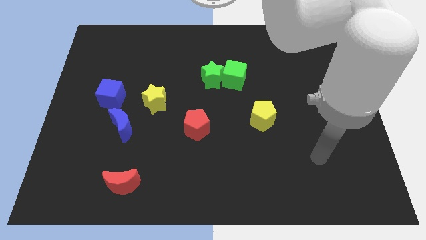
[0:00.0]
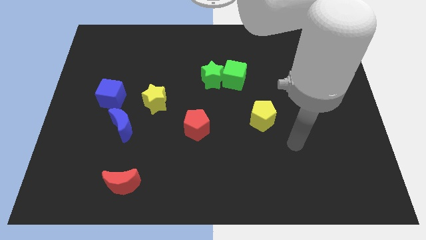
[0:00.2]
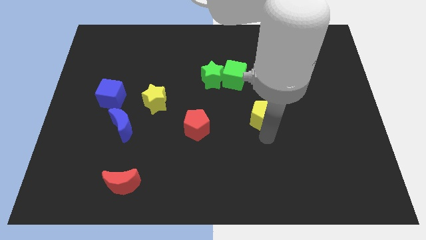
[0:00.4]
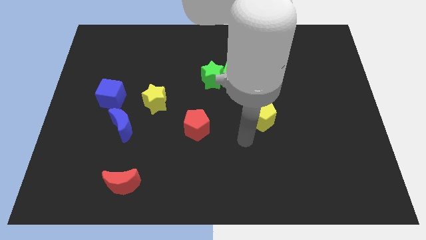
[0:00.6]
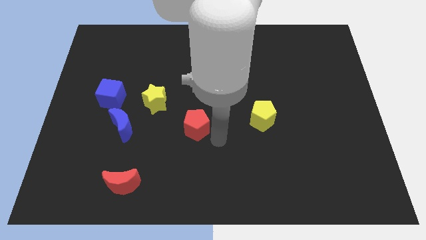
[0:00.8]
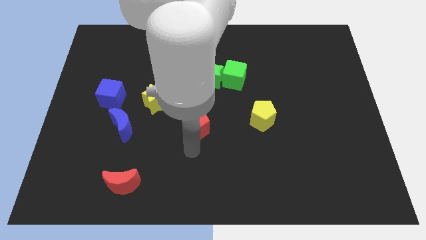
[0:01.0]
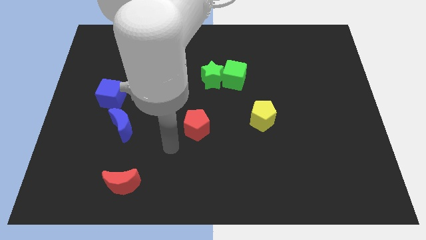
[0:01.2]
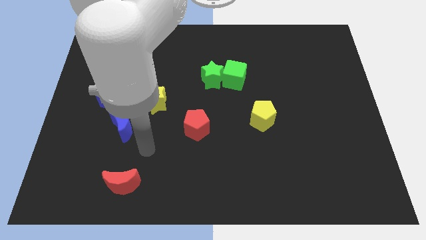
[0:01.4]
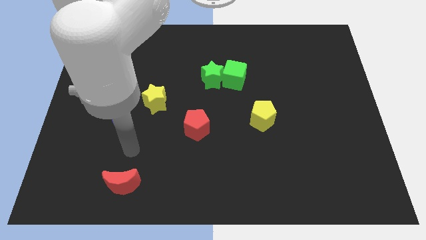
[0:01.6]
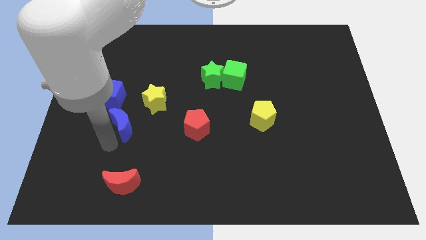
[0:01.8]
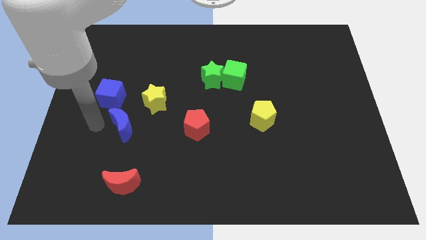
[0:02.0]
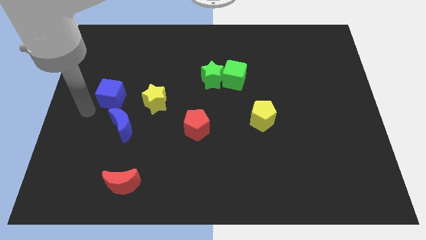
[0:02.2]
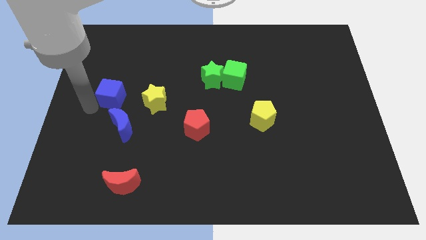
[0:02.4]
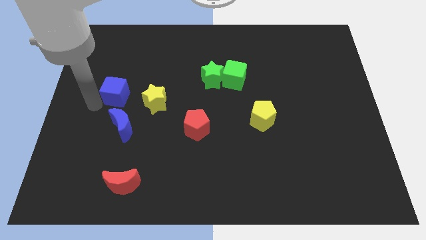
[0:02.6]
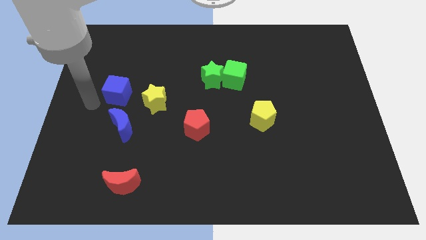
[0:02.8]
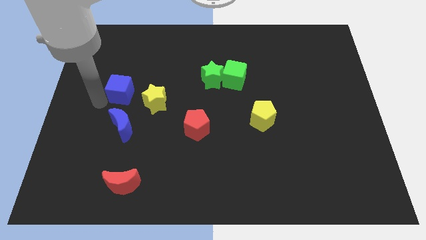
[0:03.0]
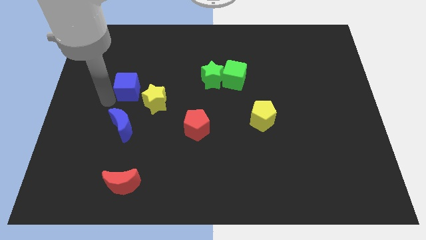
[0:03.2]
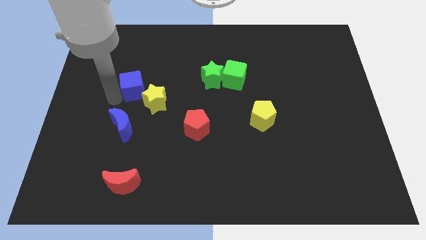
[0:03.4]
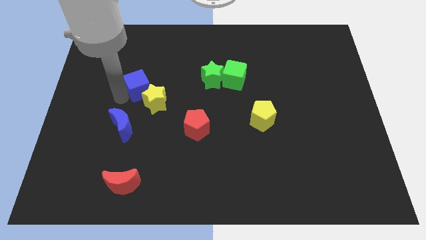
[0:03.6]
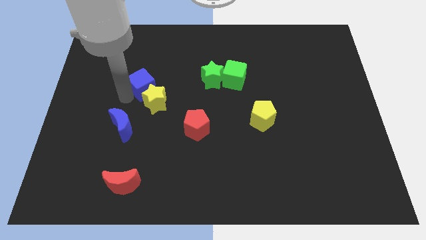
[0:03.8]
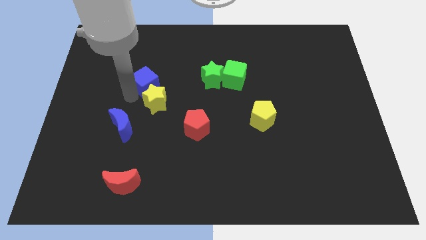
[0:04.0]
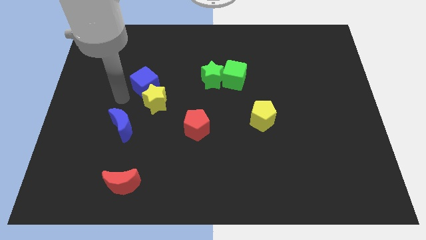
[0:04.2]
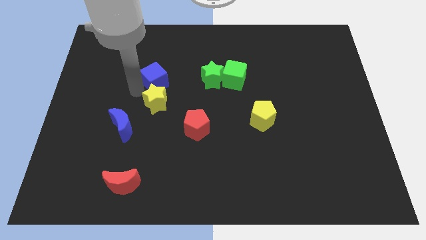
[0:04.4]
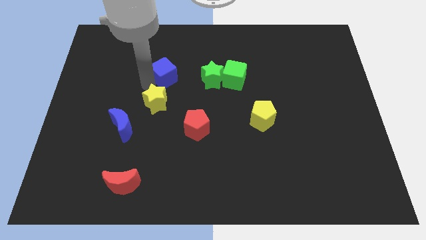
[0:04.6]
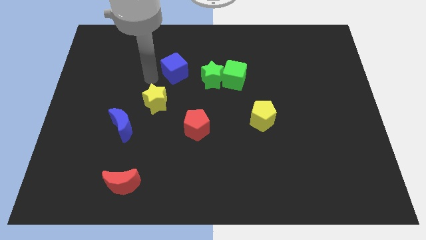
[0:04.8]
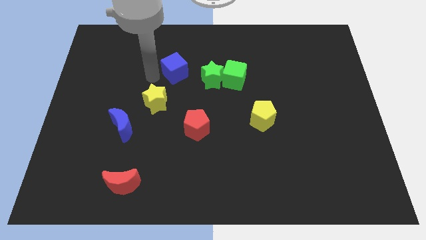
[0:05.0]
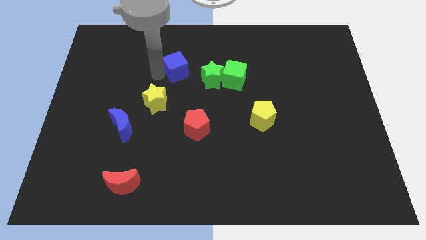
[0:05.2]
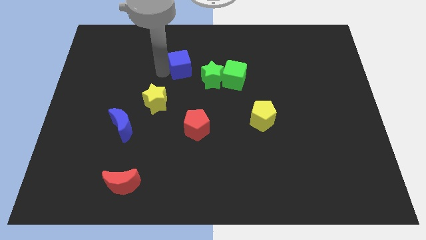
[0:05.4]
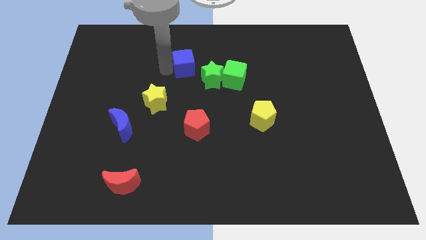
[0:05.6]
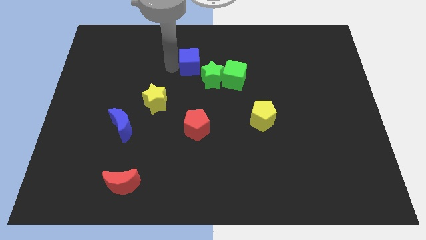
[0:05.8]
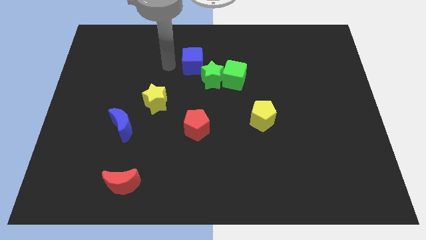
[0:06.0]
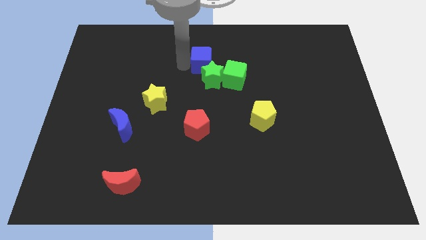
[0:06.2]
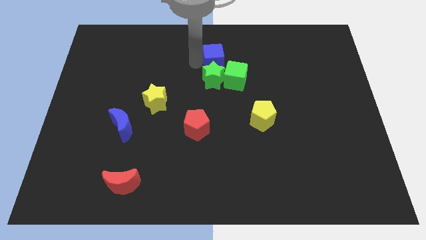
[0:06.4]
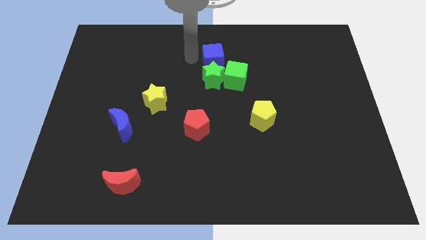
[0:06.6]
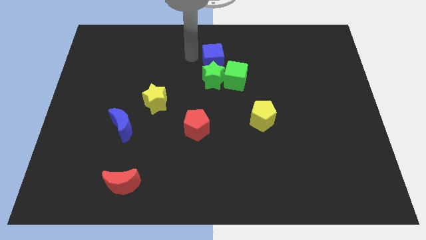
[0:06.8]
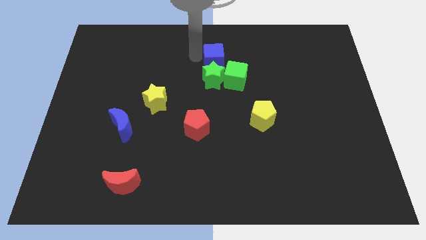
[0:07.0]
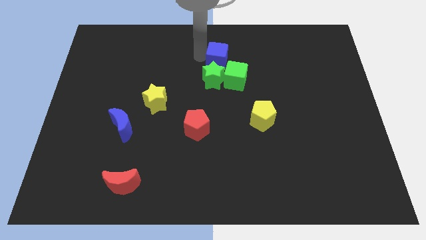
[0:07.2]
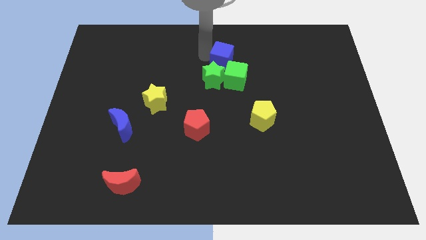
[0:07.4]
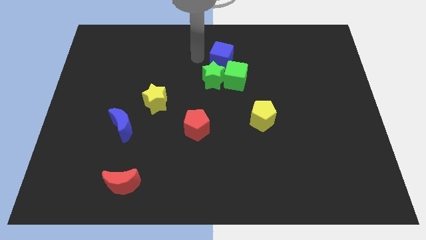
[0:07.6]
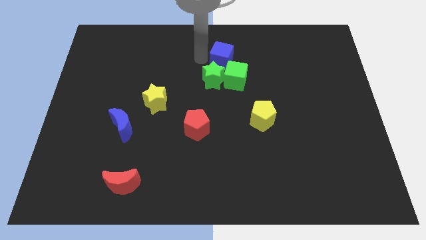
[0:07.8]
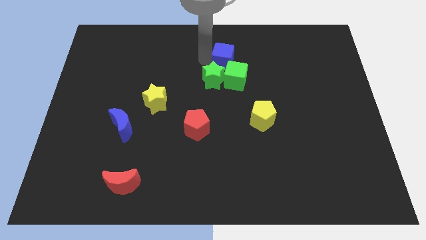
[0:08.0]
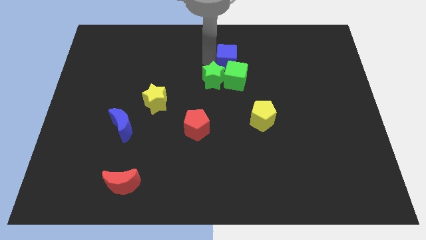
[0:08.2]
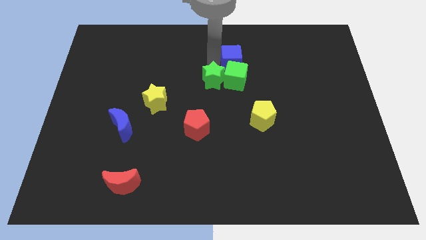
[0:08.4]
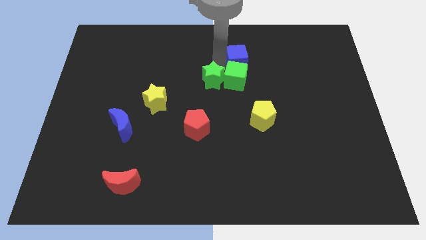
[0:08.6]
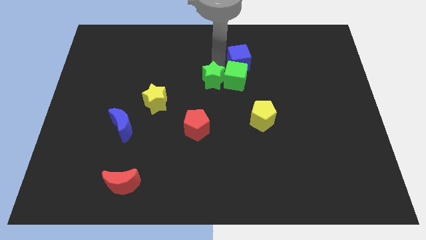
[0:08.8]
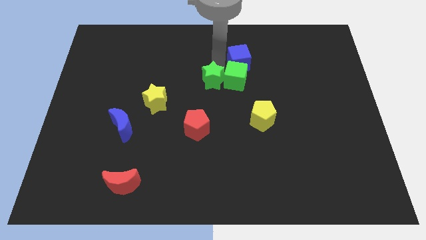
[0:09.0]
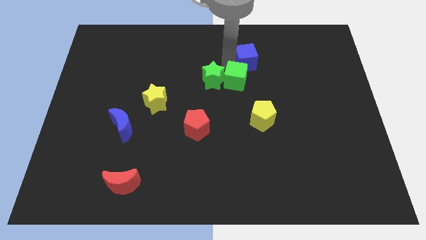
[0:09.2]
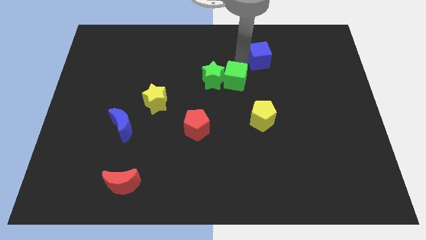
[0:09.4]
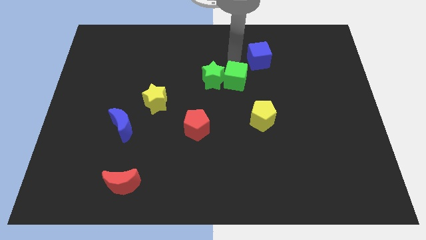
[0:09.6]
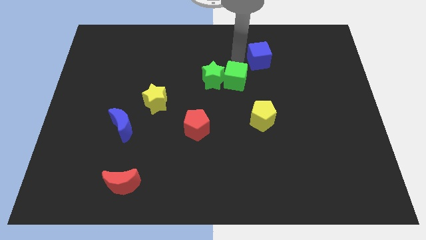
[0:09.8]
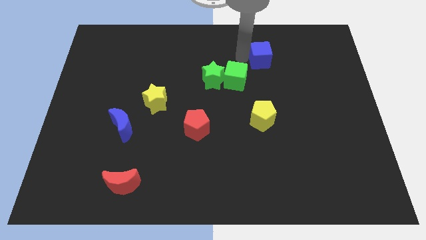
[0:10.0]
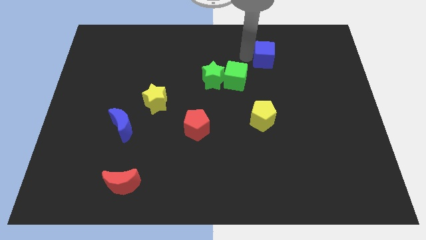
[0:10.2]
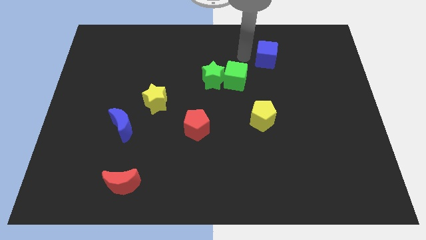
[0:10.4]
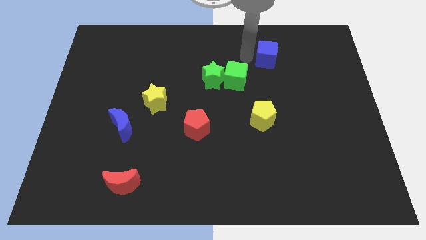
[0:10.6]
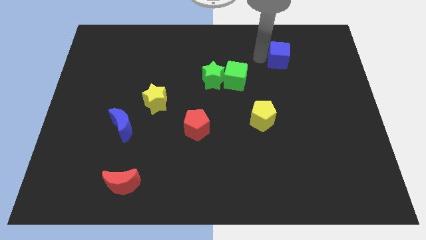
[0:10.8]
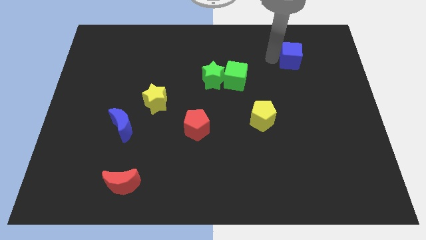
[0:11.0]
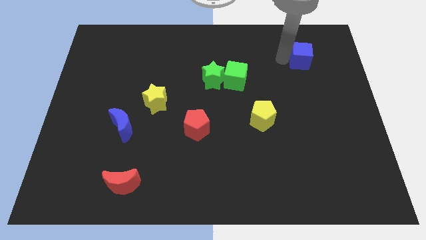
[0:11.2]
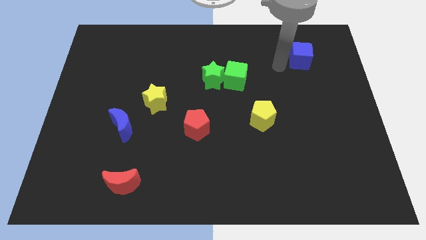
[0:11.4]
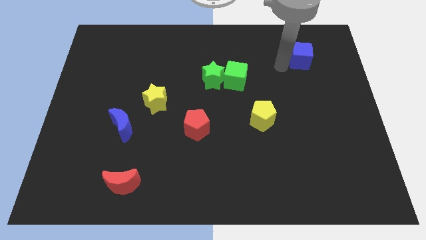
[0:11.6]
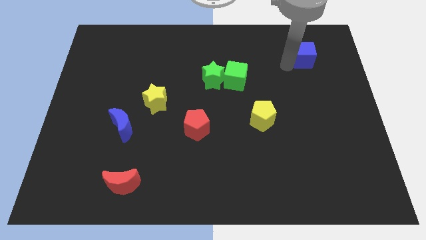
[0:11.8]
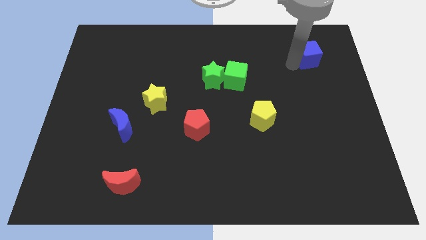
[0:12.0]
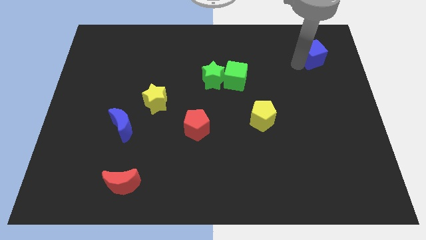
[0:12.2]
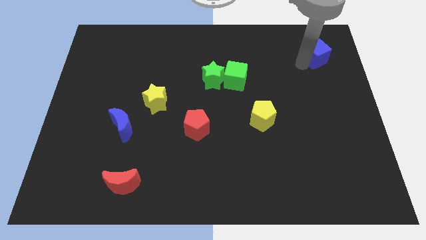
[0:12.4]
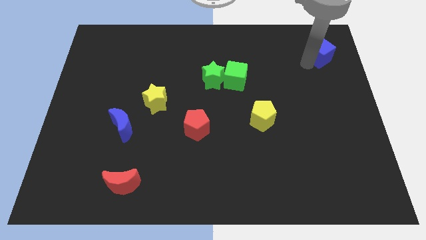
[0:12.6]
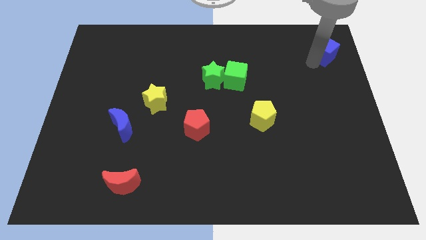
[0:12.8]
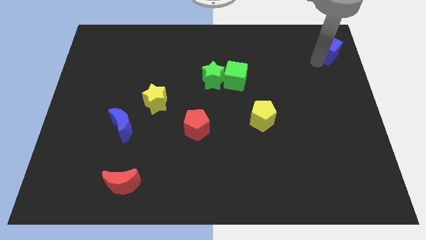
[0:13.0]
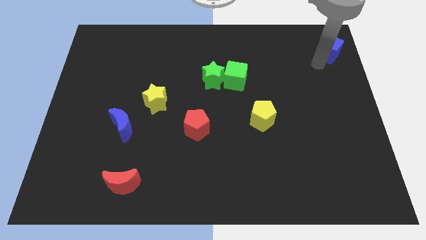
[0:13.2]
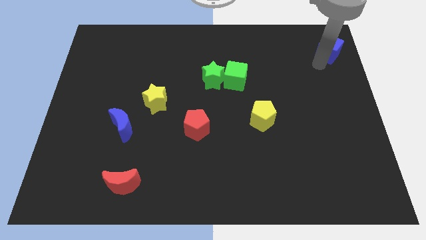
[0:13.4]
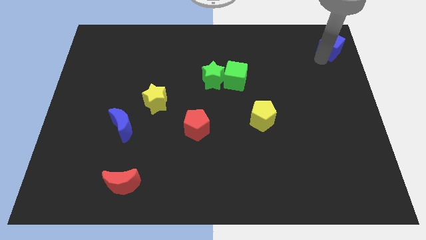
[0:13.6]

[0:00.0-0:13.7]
move the blue cube to the top right corner

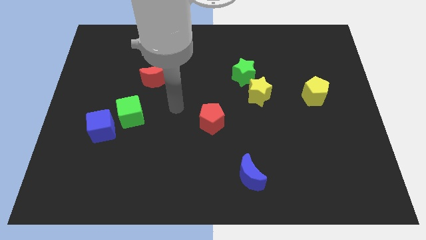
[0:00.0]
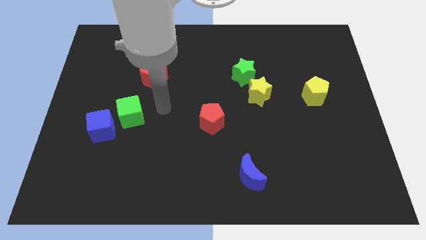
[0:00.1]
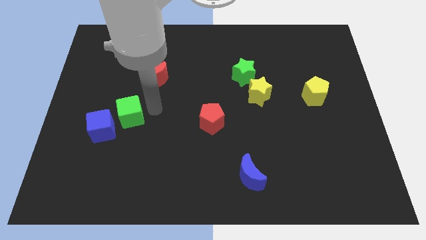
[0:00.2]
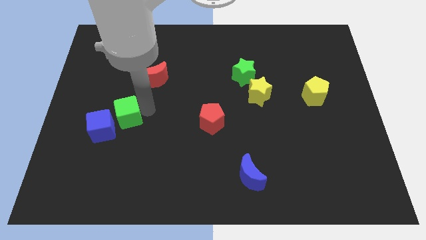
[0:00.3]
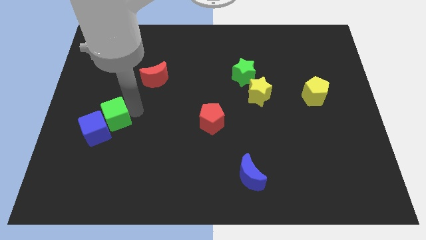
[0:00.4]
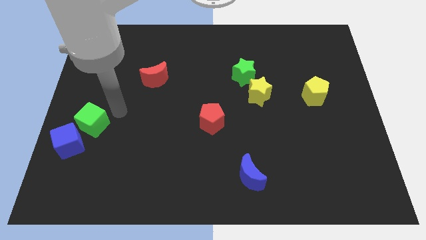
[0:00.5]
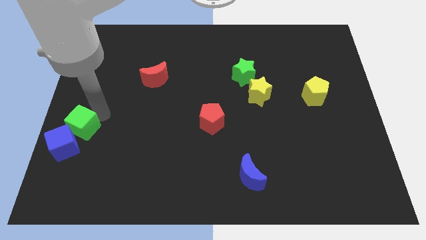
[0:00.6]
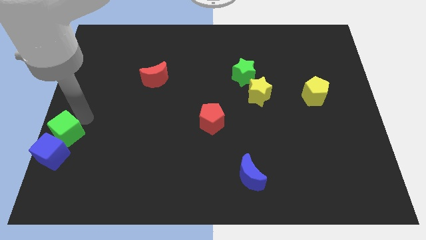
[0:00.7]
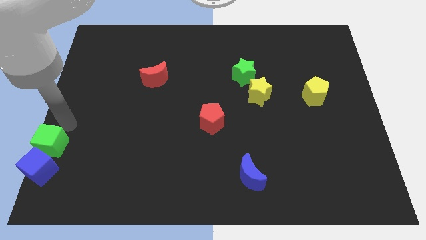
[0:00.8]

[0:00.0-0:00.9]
push the blue cube to the lower left corner
